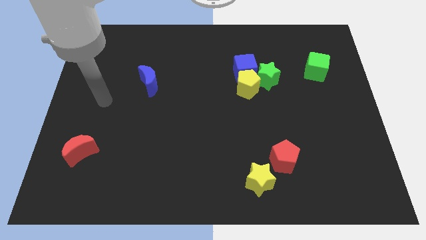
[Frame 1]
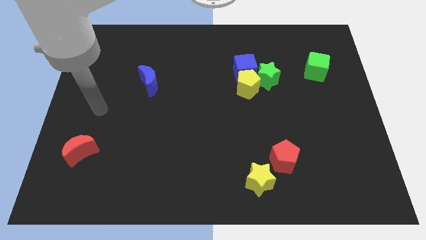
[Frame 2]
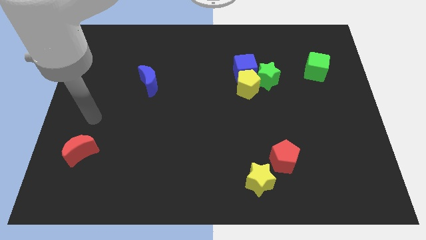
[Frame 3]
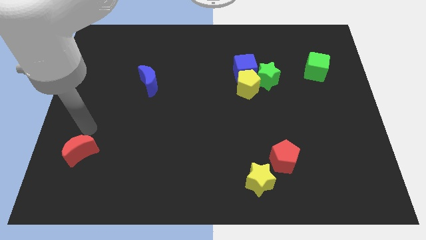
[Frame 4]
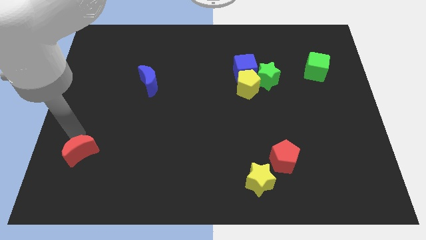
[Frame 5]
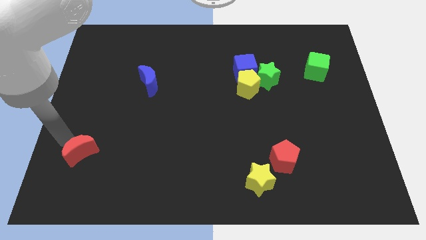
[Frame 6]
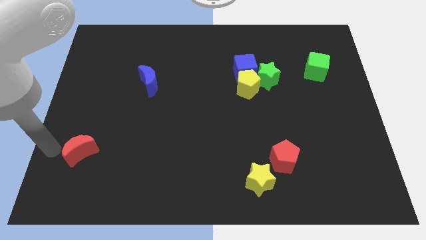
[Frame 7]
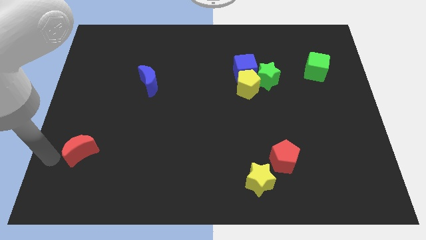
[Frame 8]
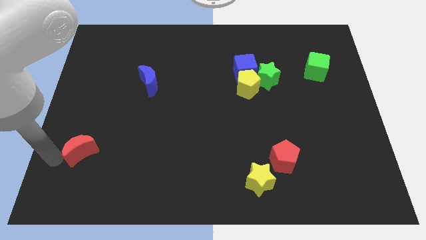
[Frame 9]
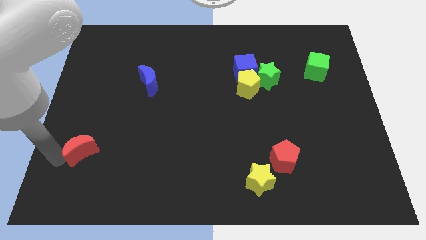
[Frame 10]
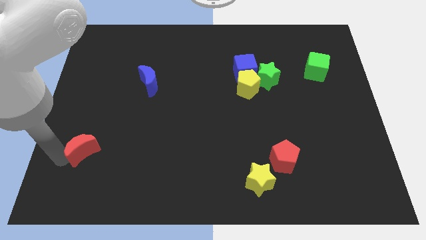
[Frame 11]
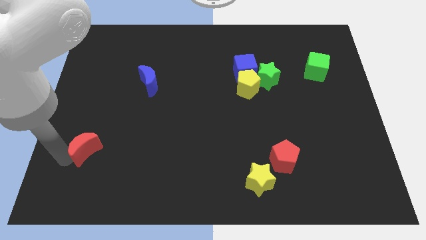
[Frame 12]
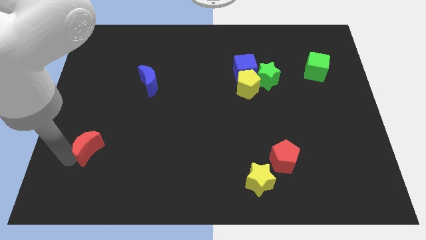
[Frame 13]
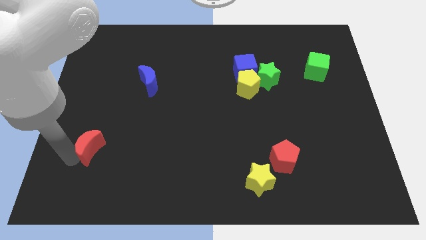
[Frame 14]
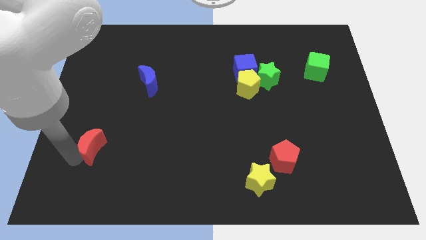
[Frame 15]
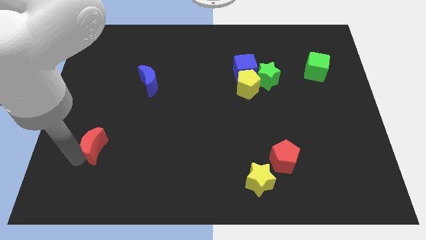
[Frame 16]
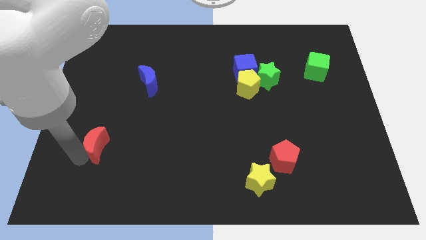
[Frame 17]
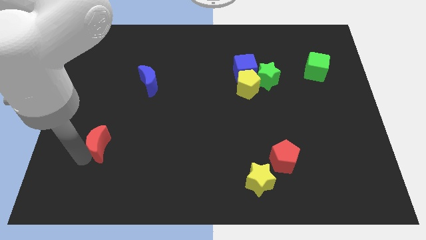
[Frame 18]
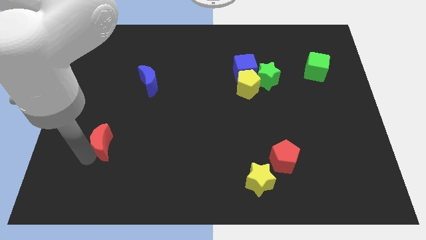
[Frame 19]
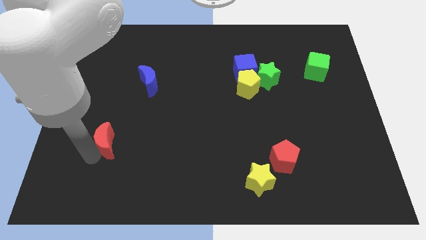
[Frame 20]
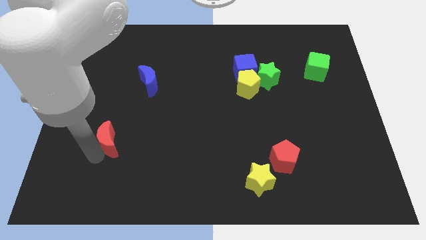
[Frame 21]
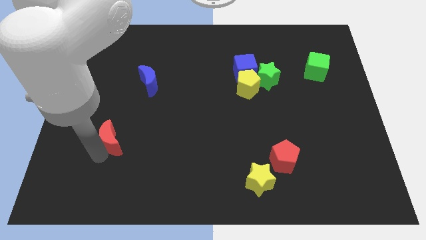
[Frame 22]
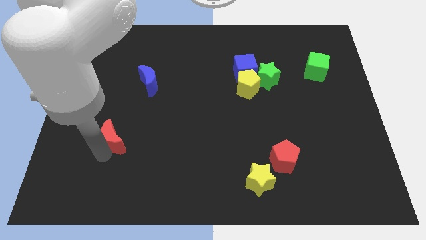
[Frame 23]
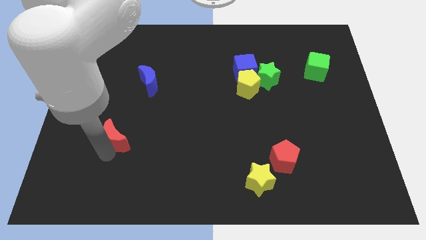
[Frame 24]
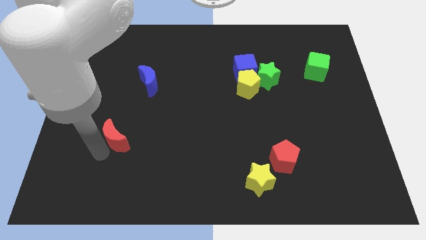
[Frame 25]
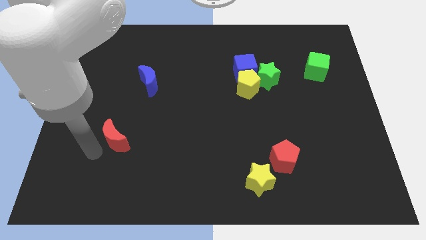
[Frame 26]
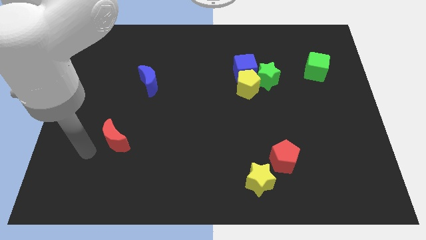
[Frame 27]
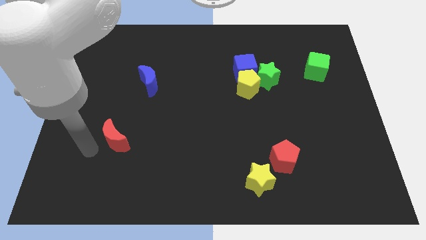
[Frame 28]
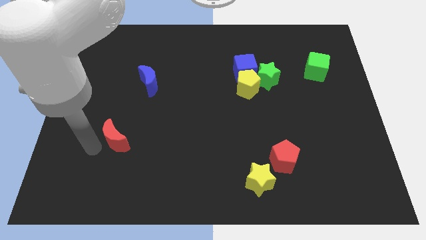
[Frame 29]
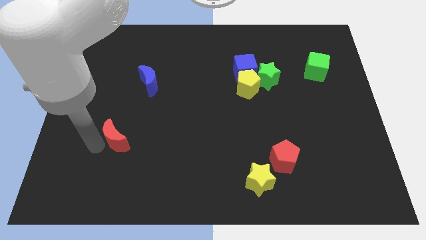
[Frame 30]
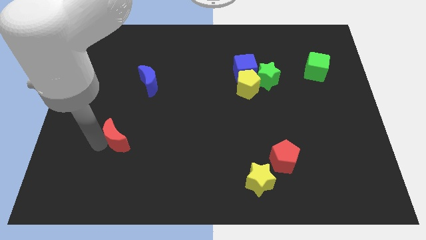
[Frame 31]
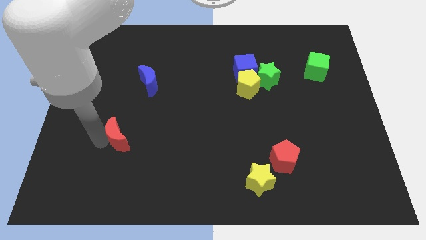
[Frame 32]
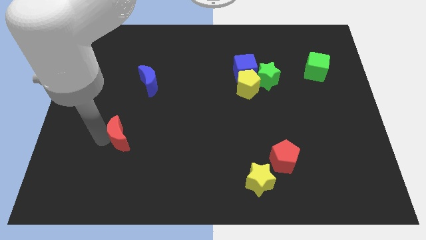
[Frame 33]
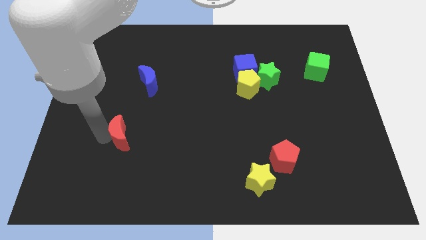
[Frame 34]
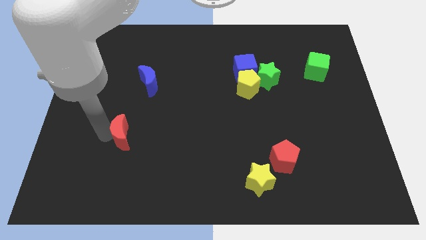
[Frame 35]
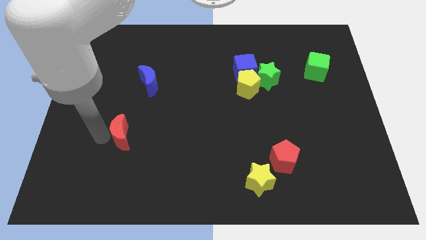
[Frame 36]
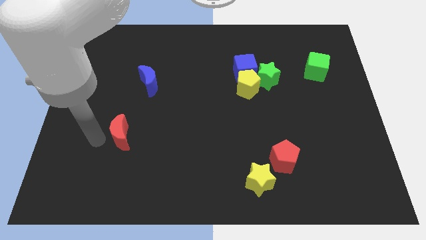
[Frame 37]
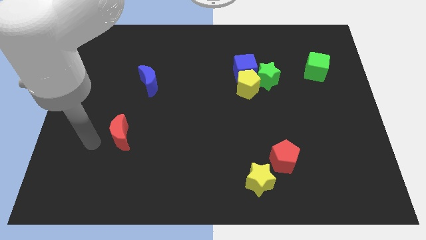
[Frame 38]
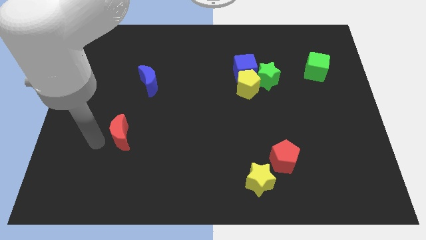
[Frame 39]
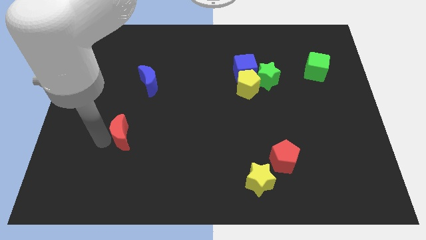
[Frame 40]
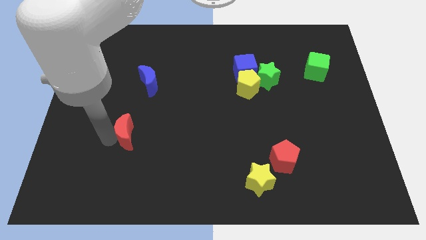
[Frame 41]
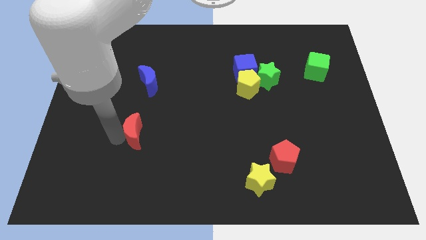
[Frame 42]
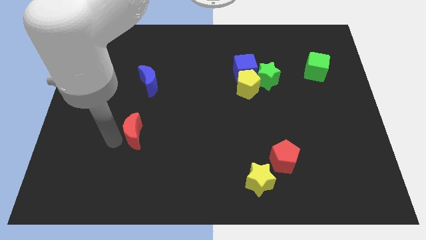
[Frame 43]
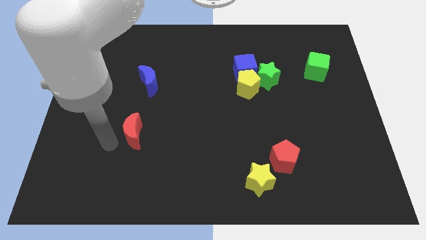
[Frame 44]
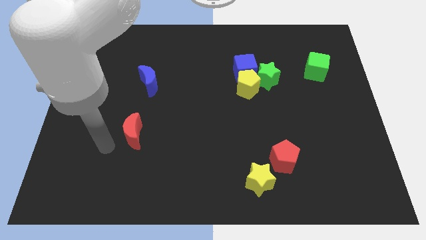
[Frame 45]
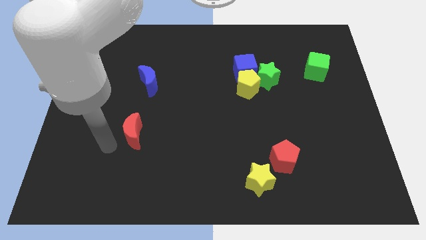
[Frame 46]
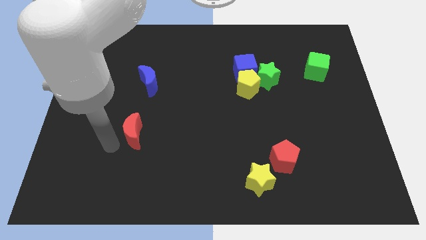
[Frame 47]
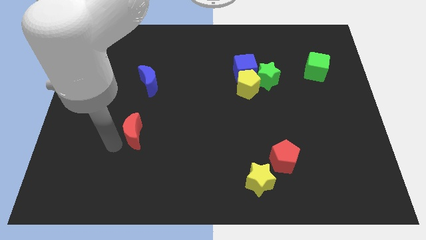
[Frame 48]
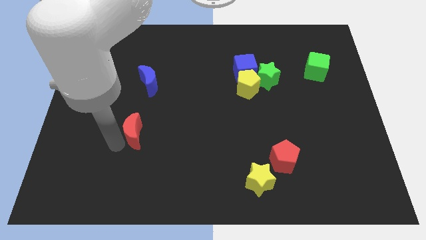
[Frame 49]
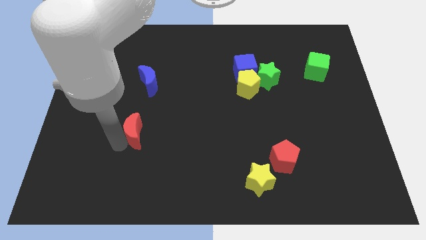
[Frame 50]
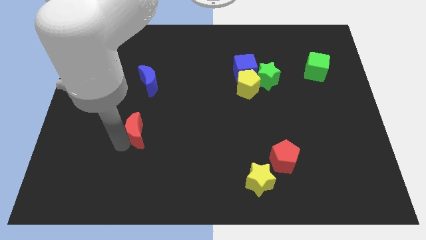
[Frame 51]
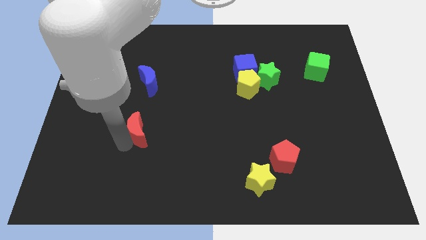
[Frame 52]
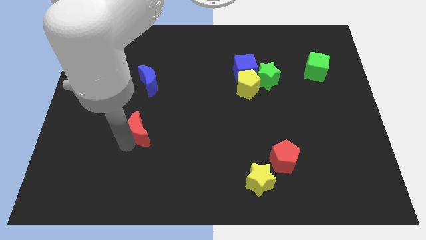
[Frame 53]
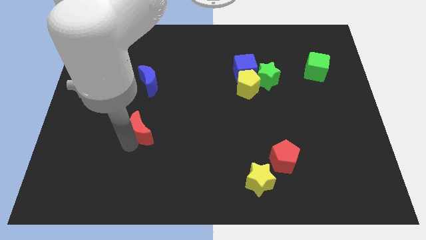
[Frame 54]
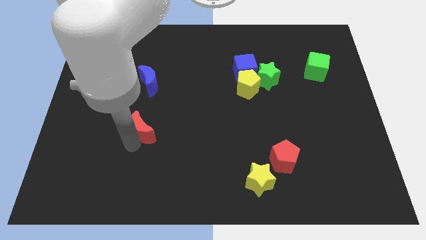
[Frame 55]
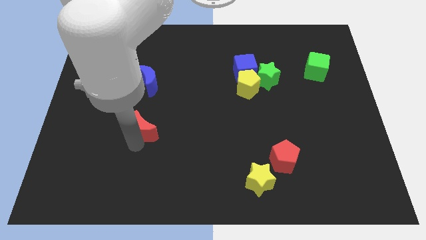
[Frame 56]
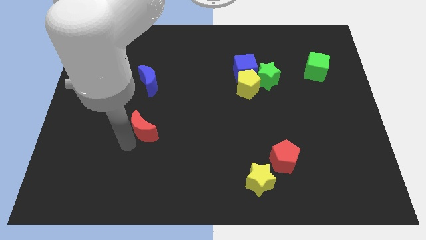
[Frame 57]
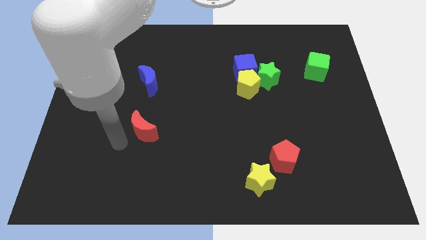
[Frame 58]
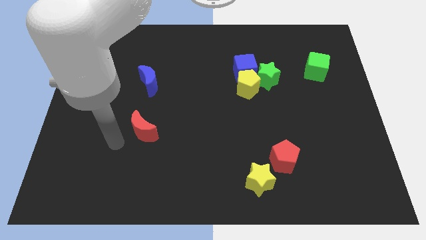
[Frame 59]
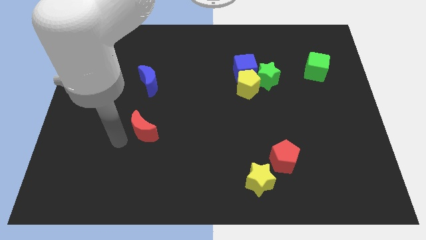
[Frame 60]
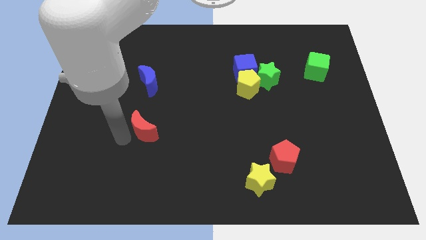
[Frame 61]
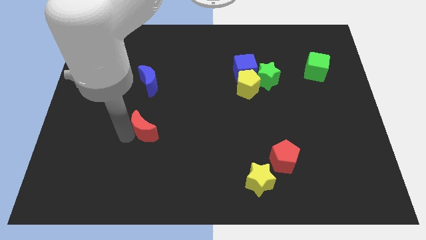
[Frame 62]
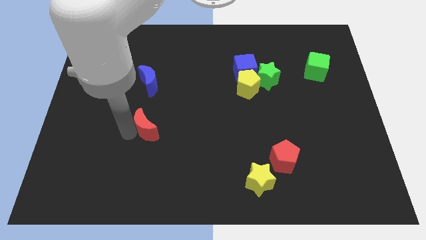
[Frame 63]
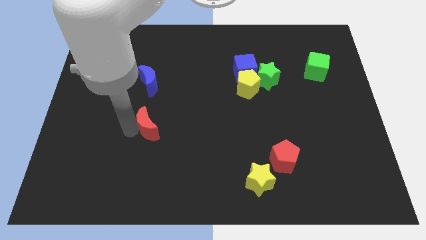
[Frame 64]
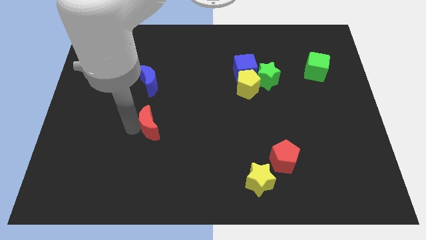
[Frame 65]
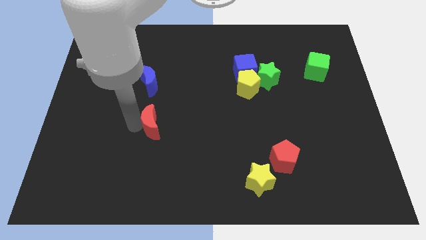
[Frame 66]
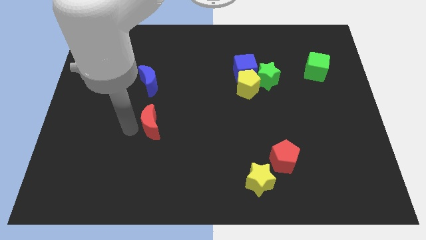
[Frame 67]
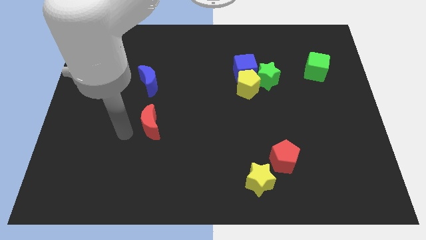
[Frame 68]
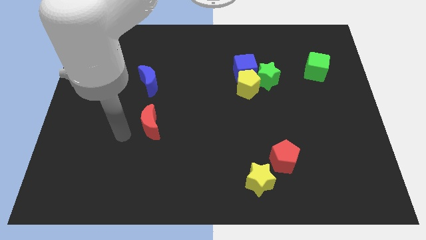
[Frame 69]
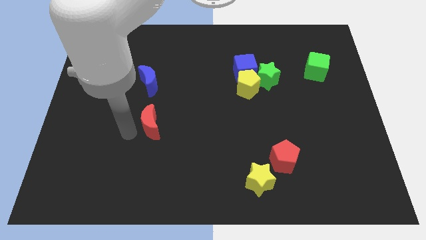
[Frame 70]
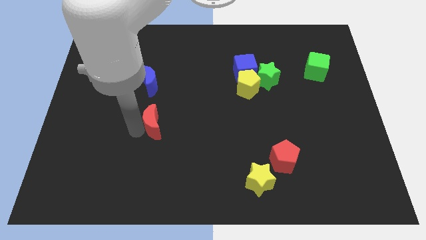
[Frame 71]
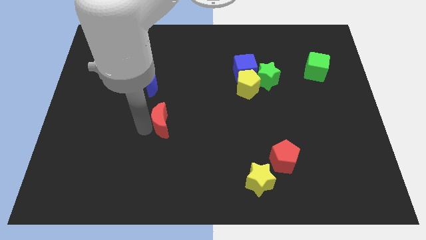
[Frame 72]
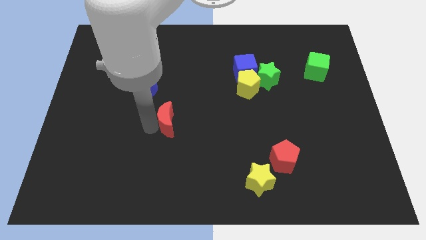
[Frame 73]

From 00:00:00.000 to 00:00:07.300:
put the red moon to the middle of the board

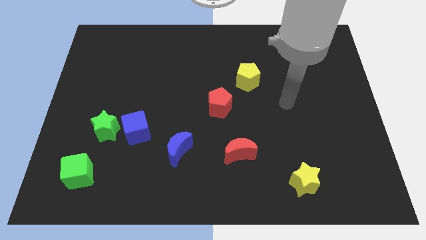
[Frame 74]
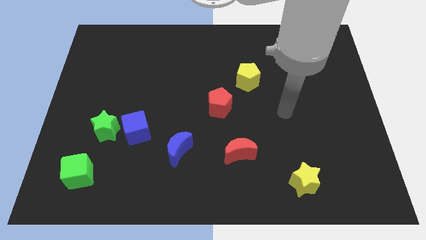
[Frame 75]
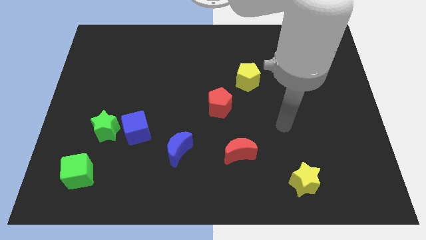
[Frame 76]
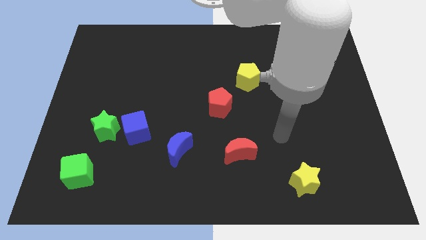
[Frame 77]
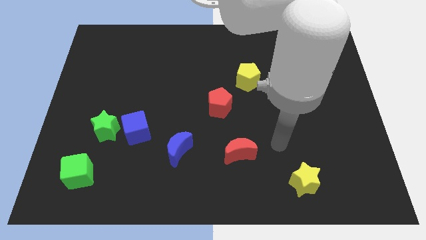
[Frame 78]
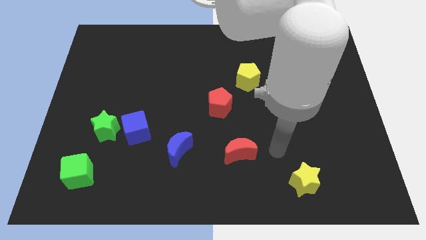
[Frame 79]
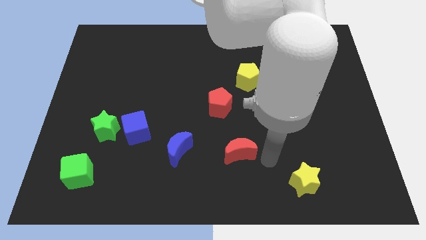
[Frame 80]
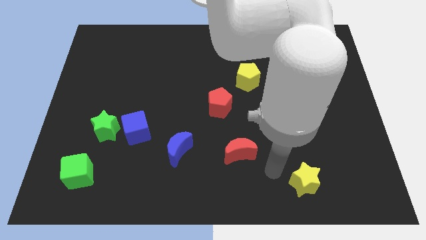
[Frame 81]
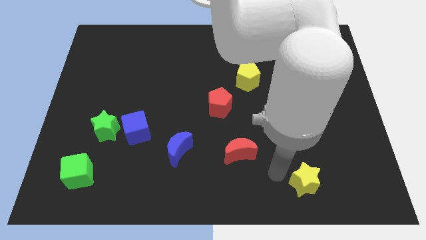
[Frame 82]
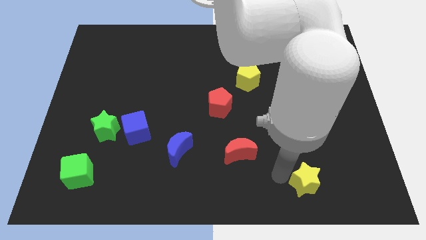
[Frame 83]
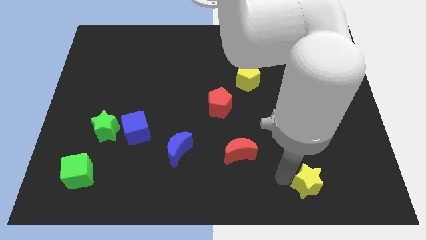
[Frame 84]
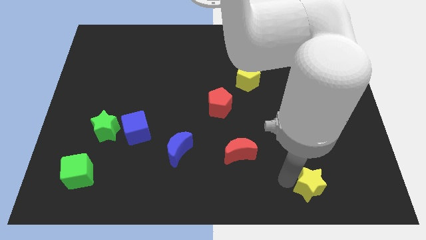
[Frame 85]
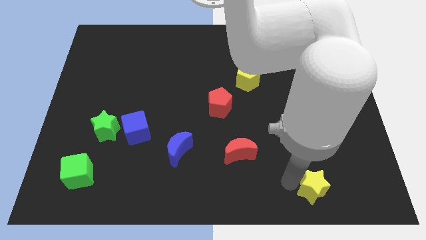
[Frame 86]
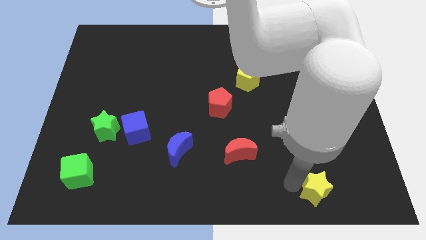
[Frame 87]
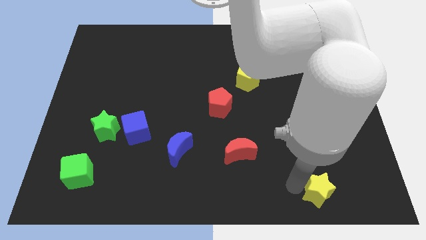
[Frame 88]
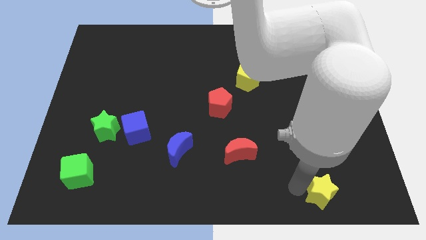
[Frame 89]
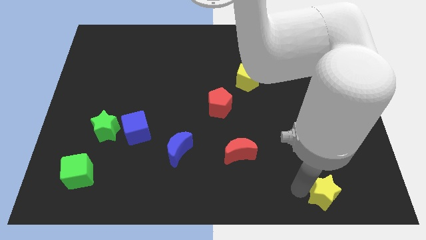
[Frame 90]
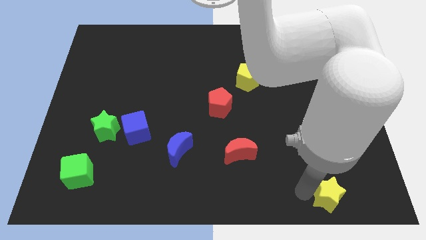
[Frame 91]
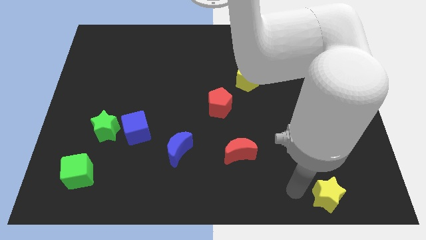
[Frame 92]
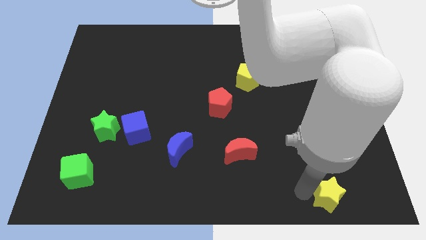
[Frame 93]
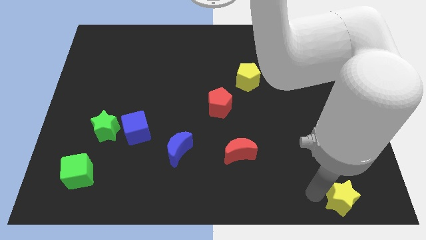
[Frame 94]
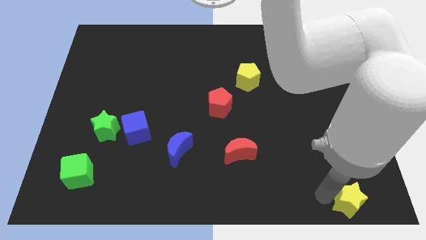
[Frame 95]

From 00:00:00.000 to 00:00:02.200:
put the yellow star to the bottom right of the board
